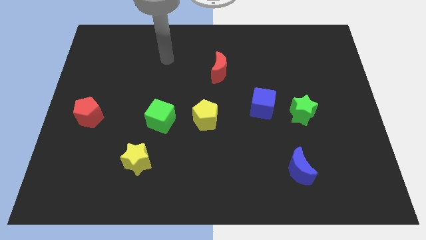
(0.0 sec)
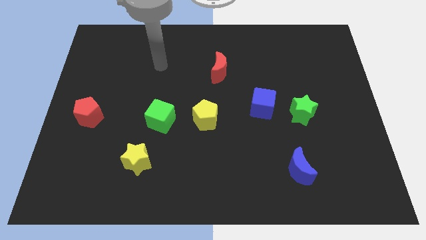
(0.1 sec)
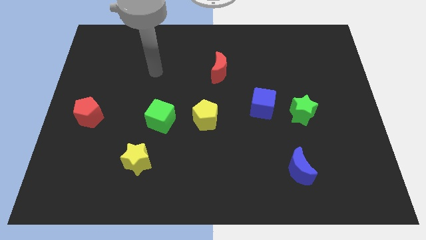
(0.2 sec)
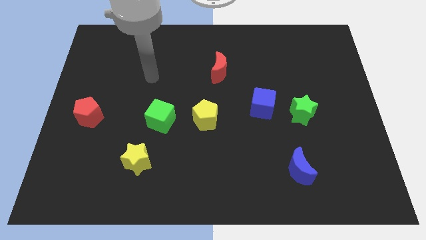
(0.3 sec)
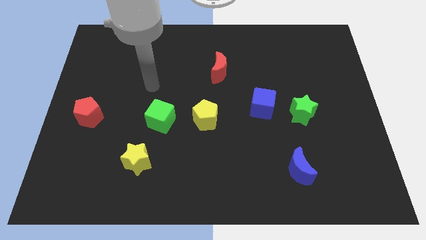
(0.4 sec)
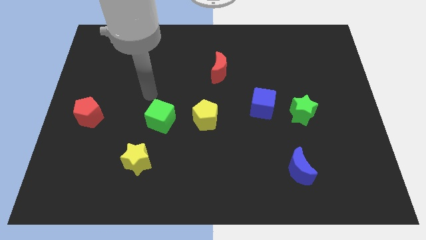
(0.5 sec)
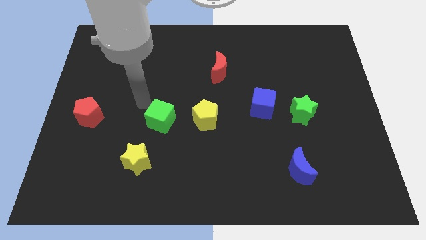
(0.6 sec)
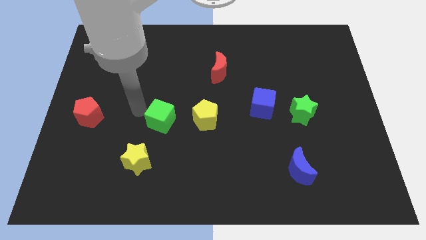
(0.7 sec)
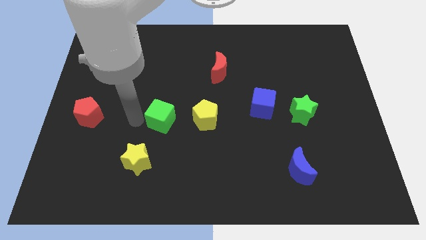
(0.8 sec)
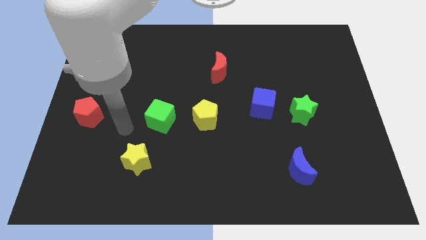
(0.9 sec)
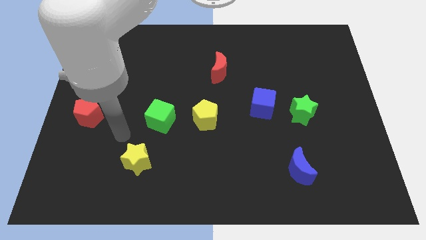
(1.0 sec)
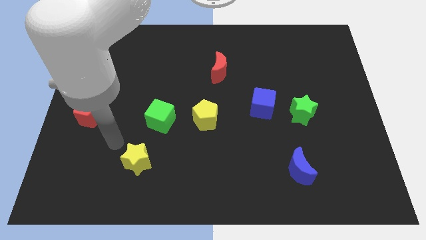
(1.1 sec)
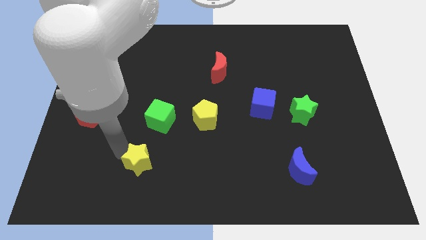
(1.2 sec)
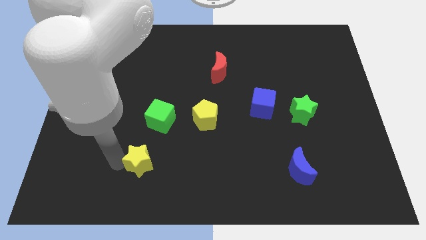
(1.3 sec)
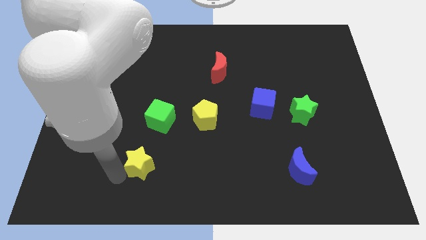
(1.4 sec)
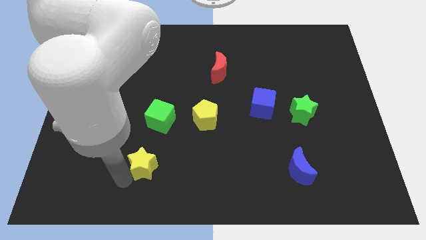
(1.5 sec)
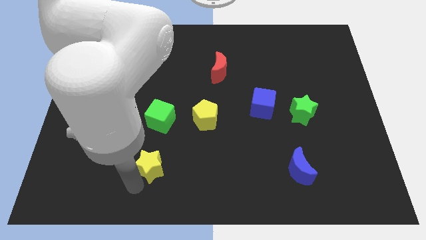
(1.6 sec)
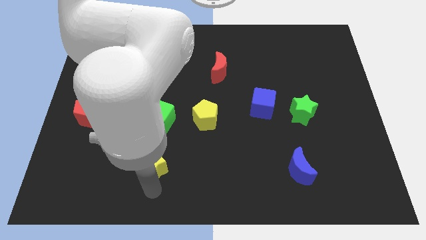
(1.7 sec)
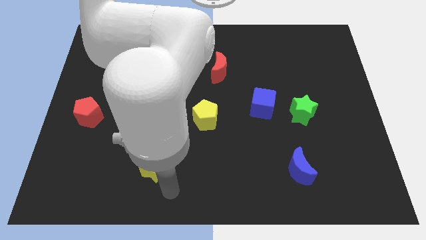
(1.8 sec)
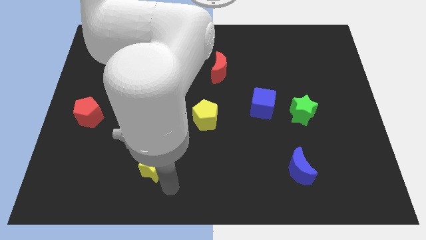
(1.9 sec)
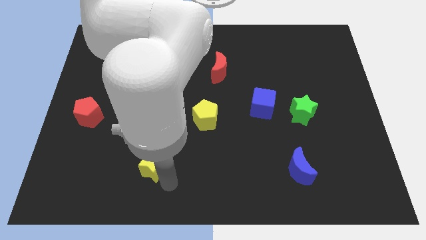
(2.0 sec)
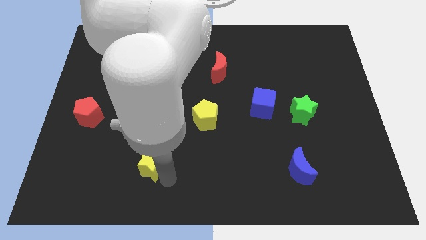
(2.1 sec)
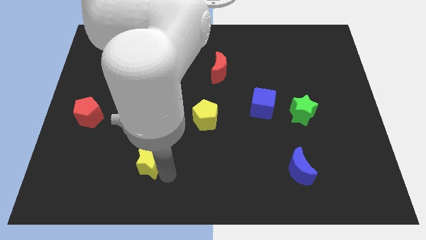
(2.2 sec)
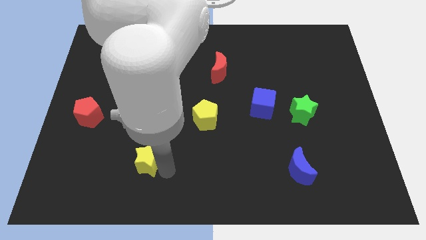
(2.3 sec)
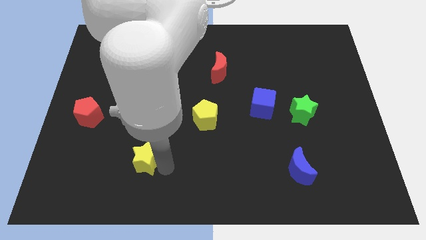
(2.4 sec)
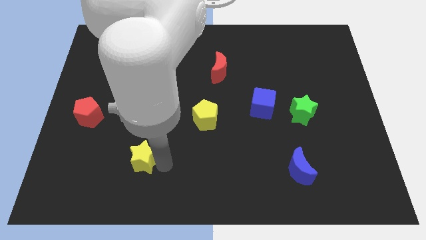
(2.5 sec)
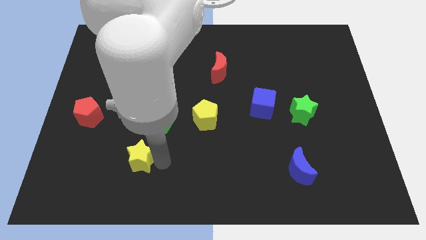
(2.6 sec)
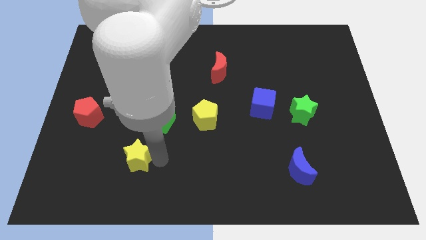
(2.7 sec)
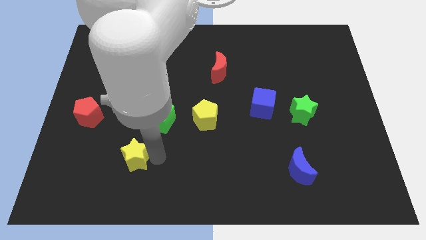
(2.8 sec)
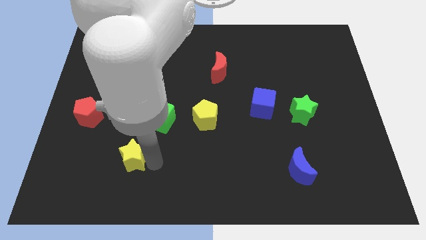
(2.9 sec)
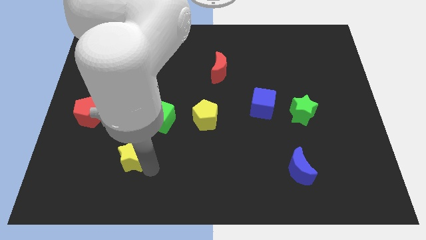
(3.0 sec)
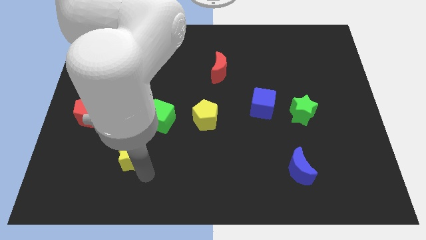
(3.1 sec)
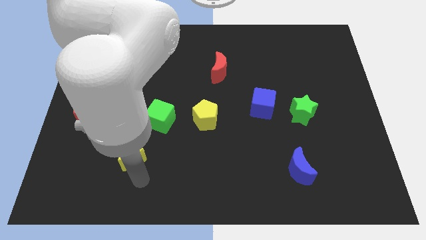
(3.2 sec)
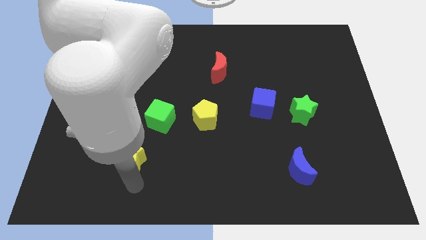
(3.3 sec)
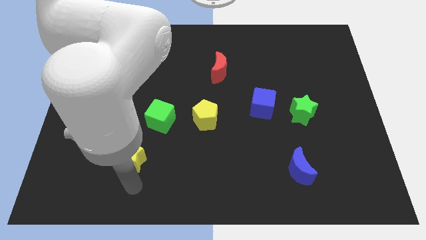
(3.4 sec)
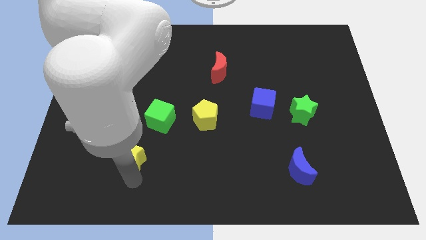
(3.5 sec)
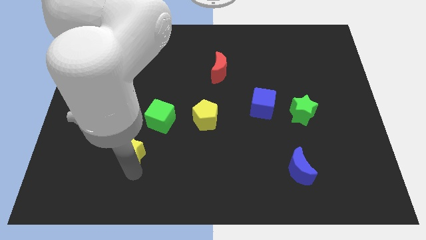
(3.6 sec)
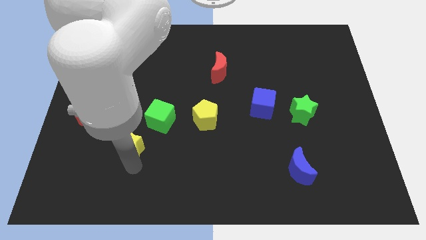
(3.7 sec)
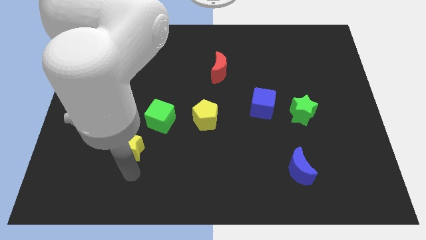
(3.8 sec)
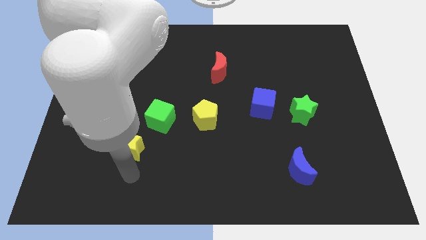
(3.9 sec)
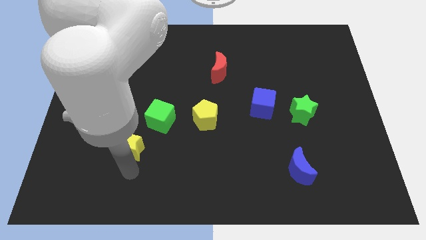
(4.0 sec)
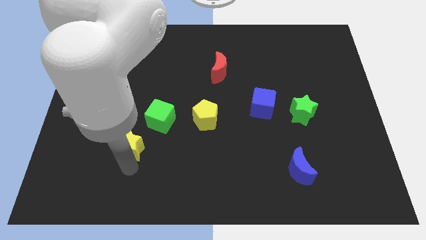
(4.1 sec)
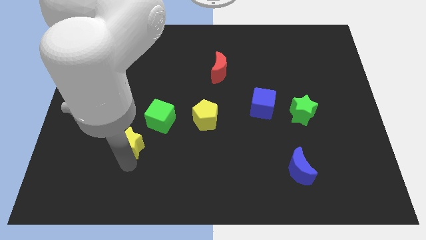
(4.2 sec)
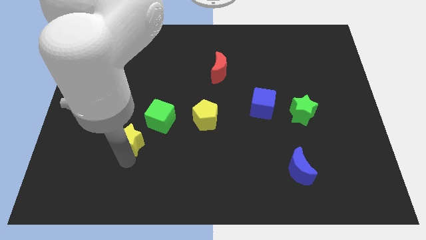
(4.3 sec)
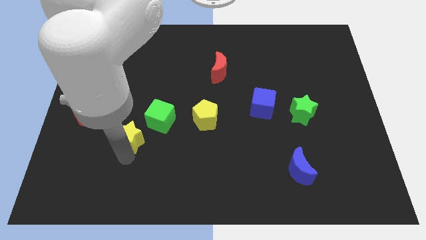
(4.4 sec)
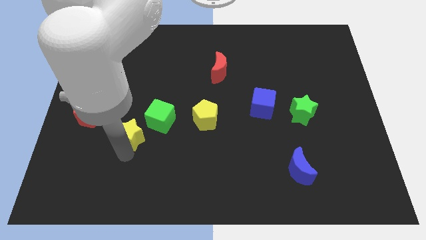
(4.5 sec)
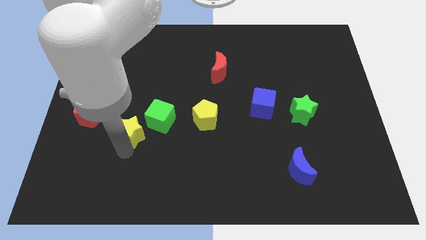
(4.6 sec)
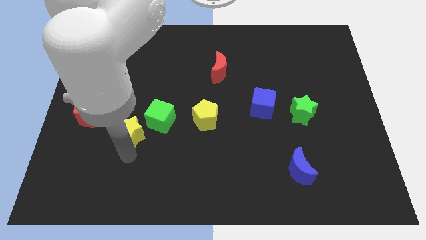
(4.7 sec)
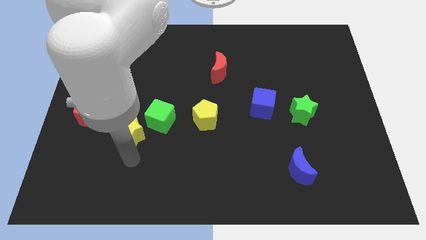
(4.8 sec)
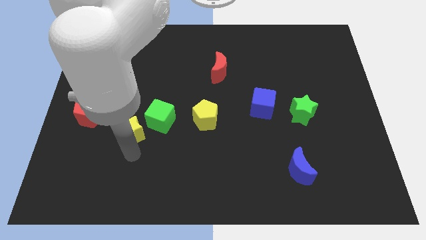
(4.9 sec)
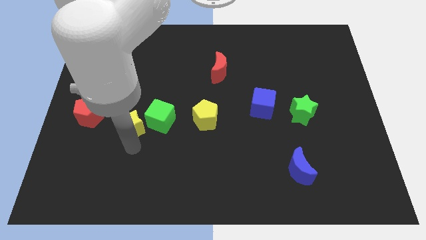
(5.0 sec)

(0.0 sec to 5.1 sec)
slide the yellow star just right of the red pentagon

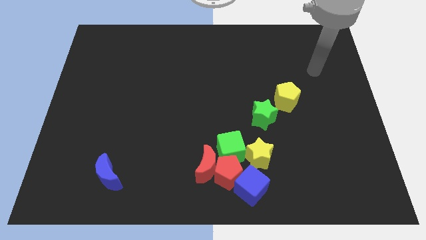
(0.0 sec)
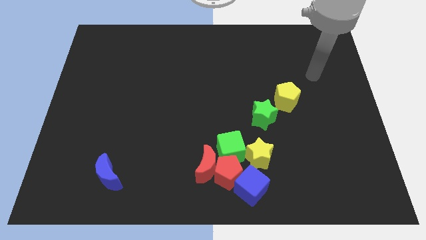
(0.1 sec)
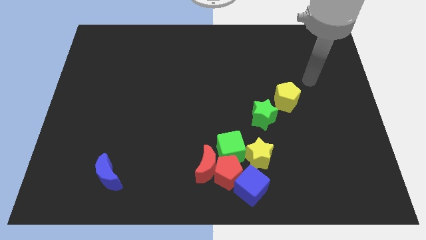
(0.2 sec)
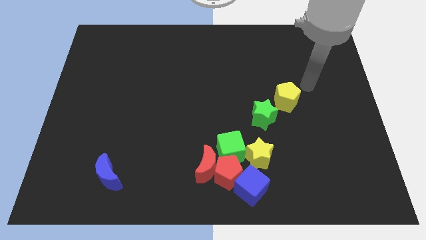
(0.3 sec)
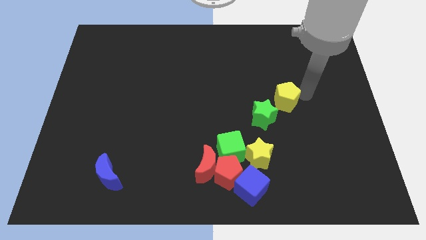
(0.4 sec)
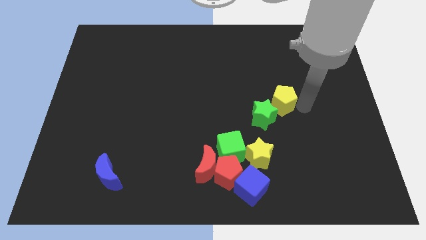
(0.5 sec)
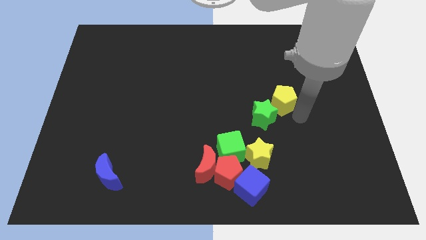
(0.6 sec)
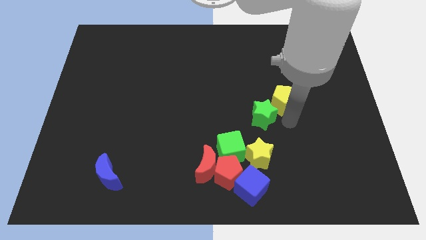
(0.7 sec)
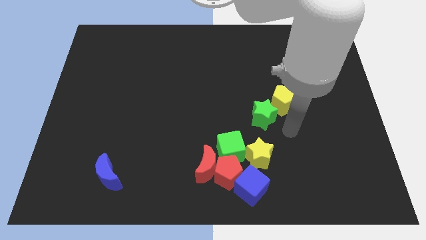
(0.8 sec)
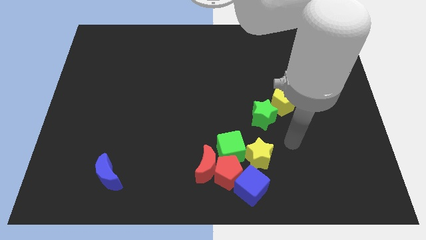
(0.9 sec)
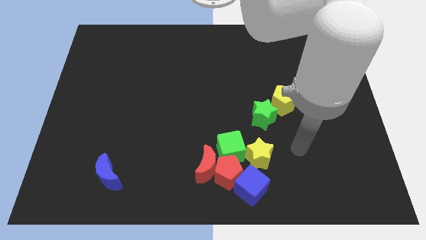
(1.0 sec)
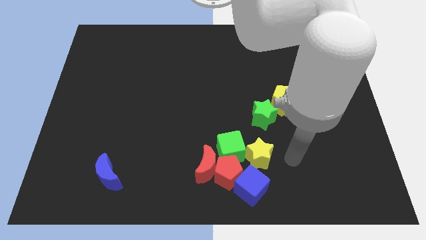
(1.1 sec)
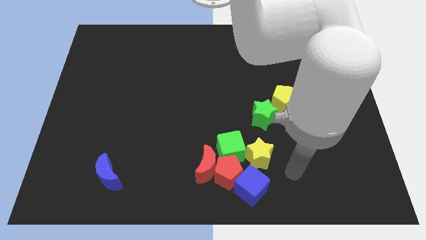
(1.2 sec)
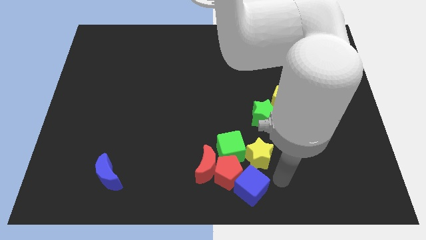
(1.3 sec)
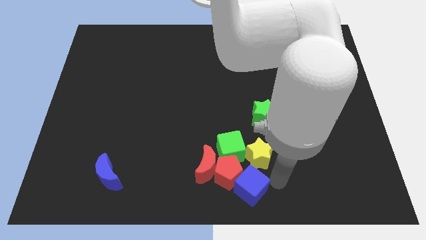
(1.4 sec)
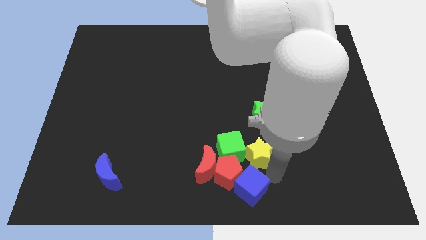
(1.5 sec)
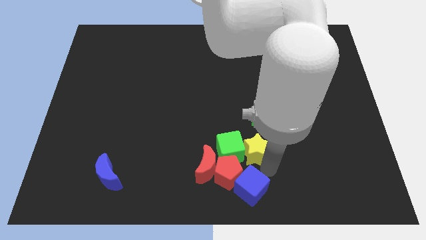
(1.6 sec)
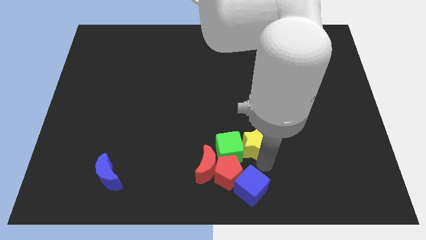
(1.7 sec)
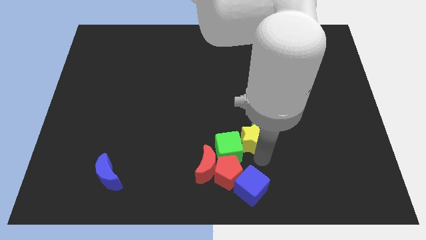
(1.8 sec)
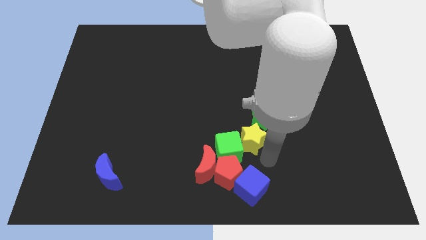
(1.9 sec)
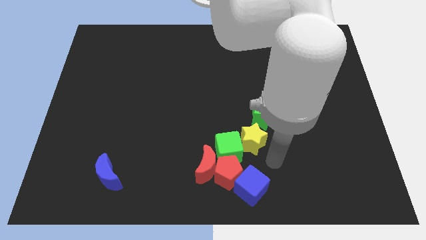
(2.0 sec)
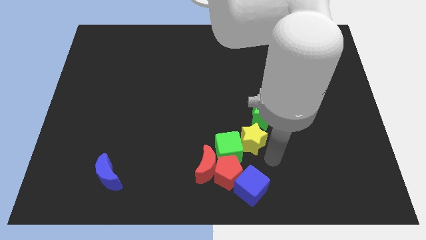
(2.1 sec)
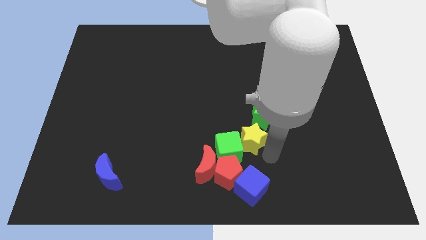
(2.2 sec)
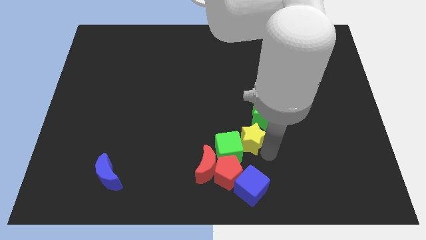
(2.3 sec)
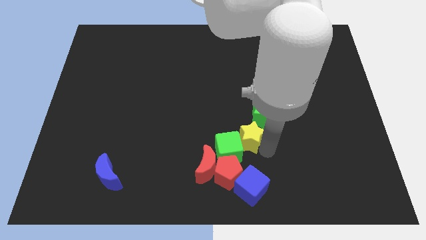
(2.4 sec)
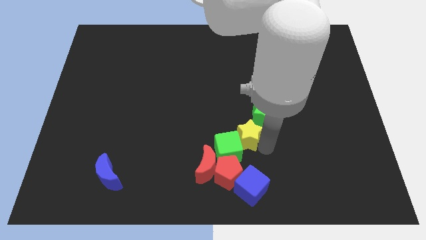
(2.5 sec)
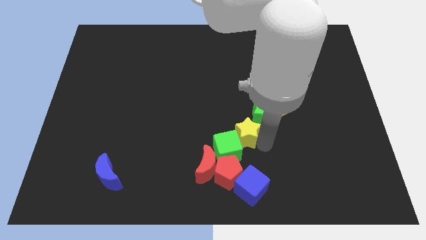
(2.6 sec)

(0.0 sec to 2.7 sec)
push the yellow star above the green cube
